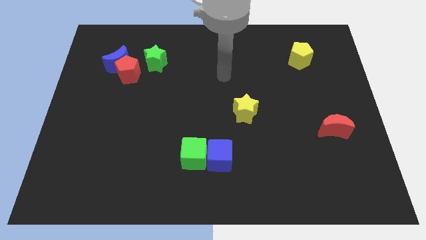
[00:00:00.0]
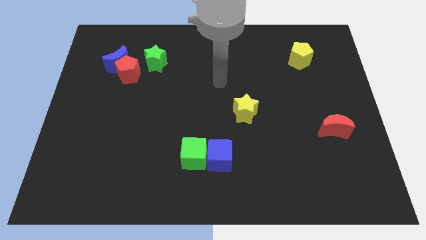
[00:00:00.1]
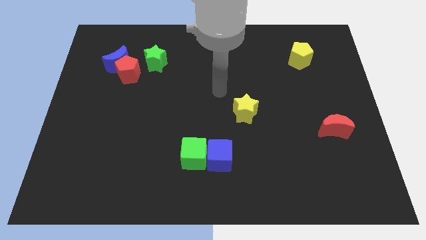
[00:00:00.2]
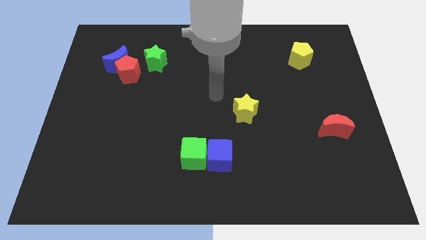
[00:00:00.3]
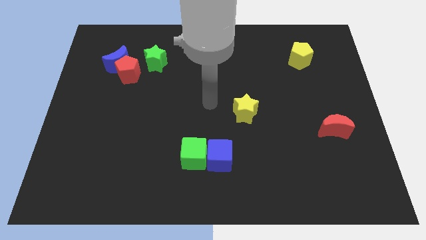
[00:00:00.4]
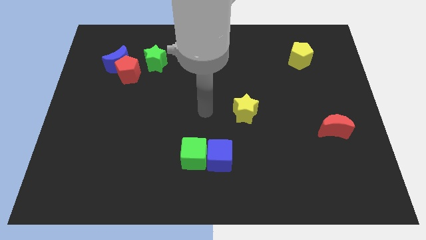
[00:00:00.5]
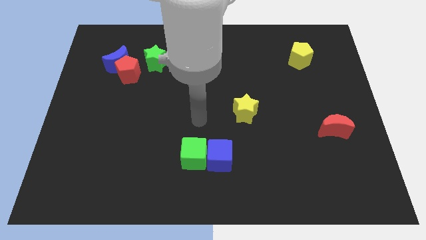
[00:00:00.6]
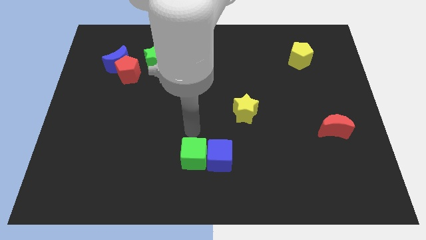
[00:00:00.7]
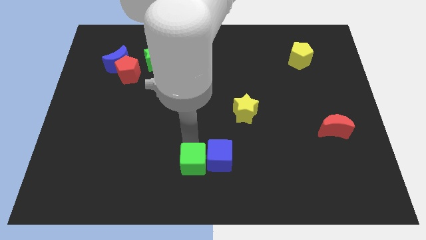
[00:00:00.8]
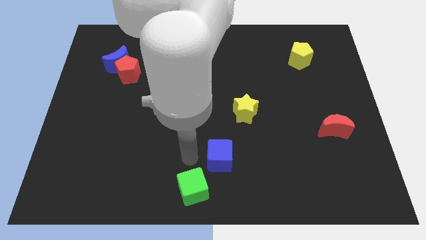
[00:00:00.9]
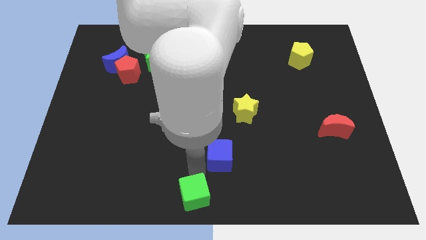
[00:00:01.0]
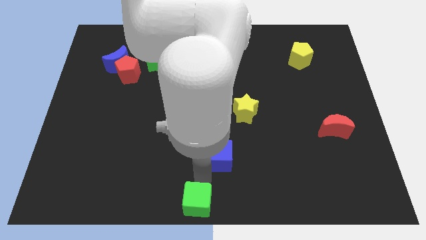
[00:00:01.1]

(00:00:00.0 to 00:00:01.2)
pull the blue cube apart from the green cube

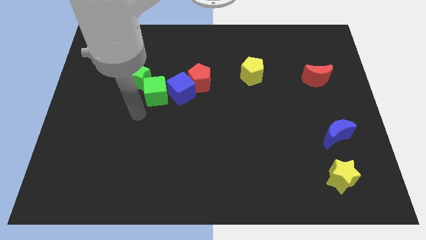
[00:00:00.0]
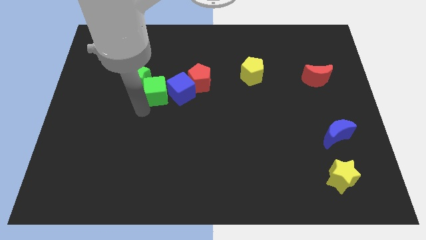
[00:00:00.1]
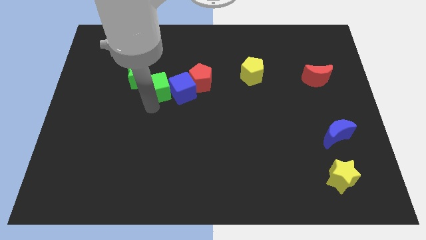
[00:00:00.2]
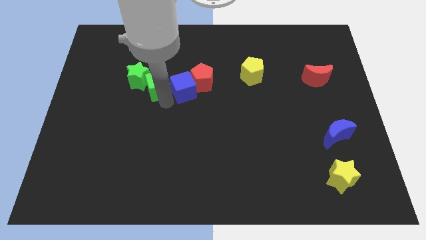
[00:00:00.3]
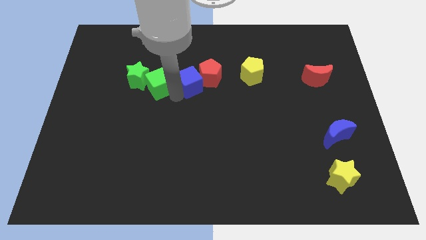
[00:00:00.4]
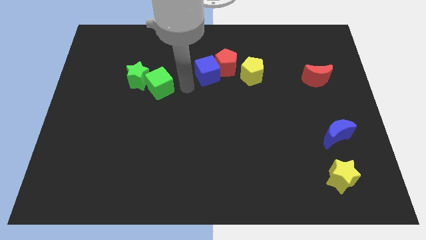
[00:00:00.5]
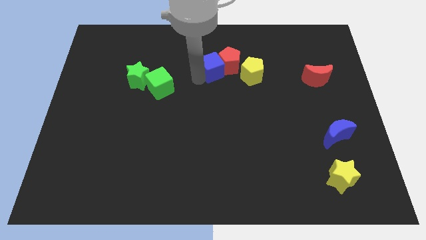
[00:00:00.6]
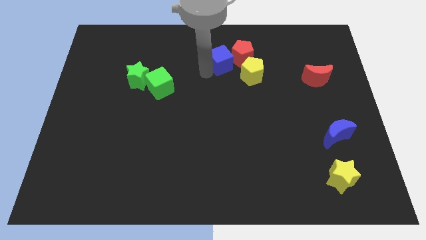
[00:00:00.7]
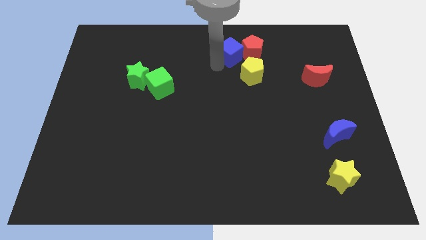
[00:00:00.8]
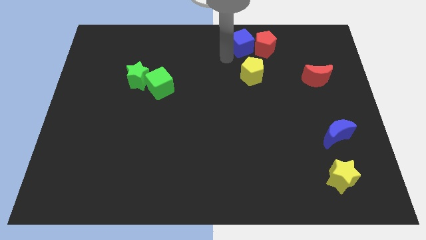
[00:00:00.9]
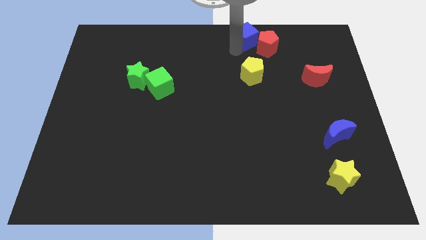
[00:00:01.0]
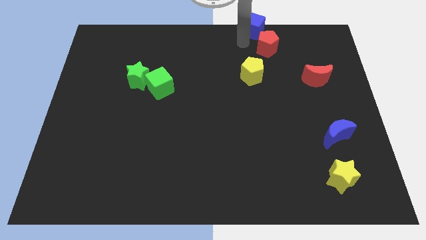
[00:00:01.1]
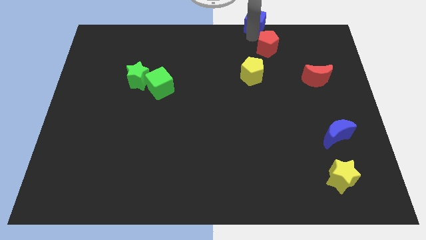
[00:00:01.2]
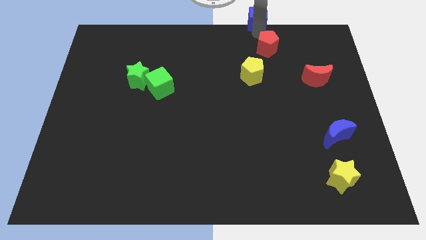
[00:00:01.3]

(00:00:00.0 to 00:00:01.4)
pull the red pentagon apart from the blue cube

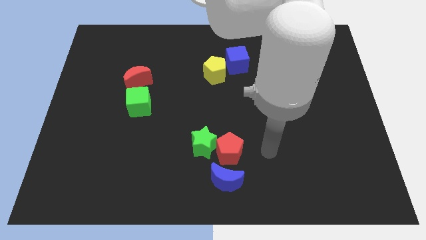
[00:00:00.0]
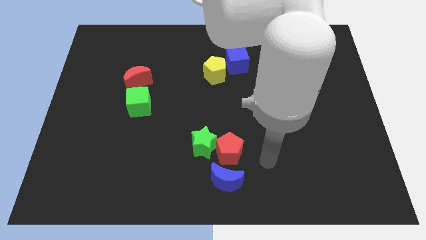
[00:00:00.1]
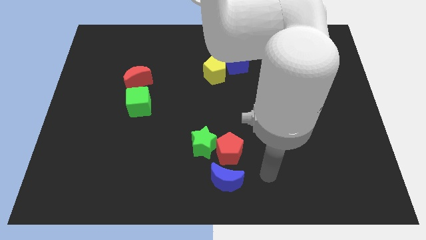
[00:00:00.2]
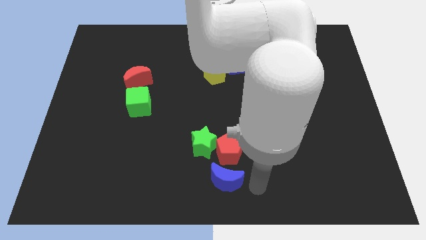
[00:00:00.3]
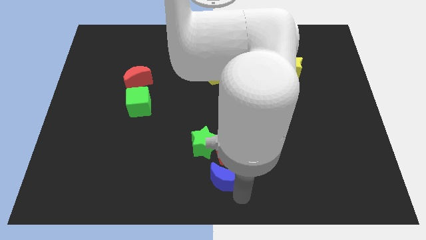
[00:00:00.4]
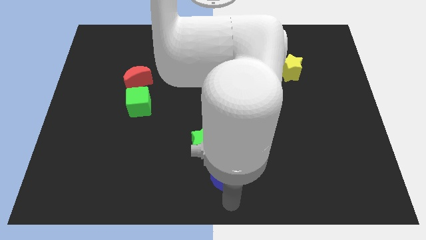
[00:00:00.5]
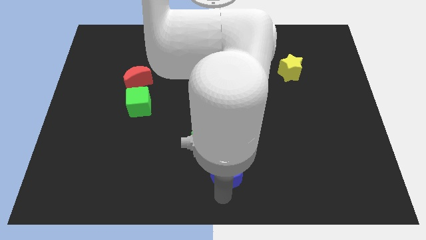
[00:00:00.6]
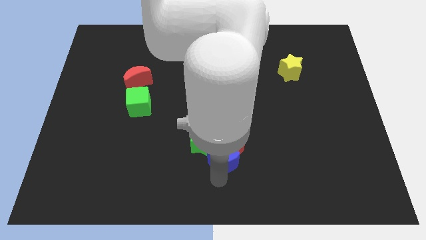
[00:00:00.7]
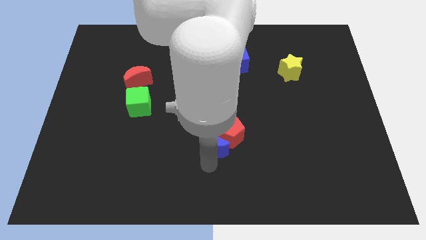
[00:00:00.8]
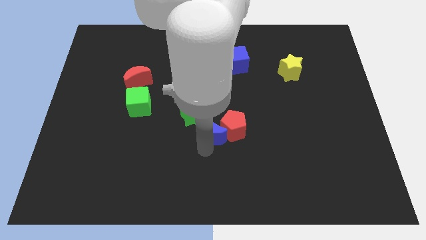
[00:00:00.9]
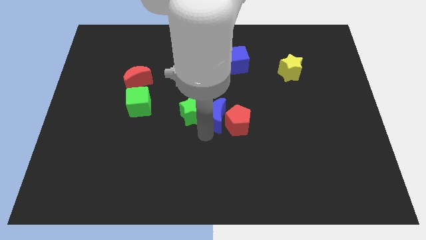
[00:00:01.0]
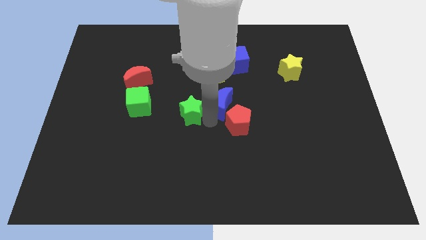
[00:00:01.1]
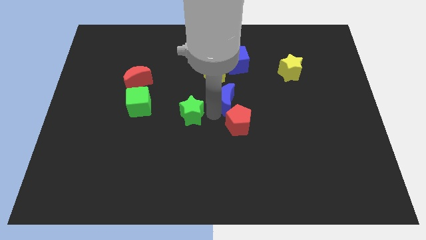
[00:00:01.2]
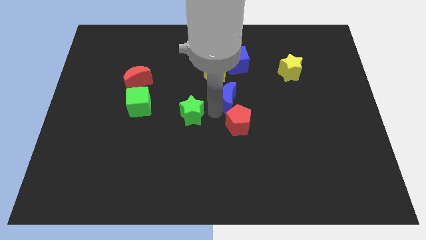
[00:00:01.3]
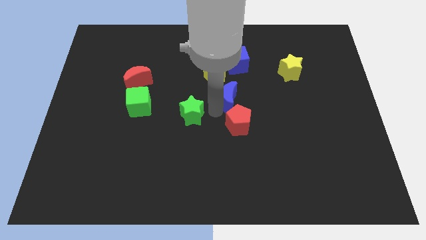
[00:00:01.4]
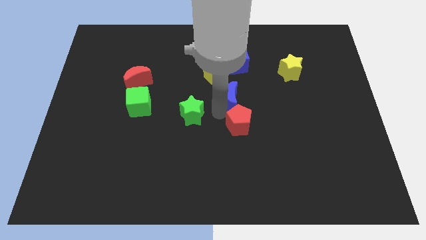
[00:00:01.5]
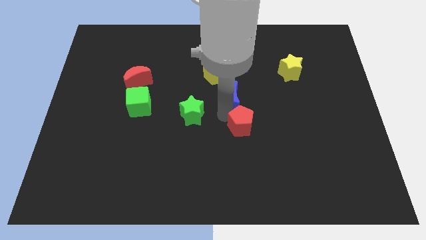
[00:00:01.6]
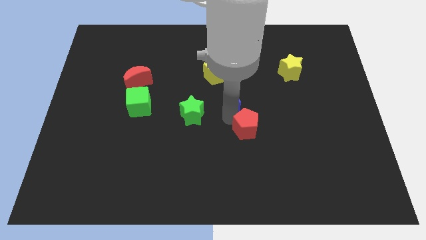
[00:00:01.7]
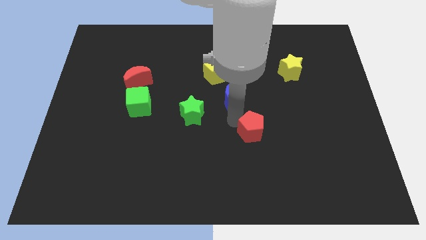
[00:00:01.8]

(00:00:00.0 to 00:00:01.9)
pull the red pentagon apart from the green star and blue moon

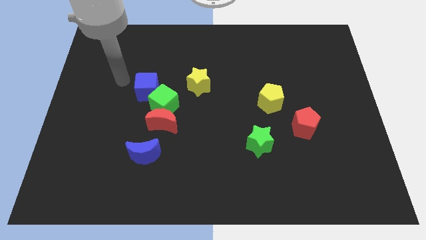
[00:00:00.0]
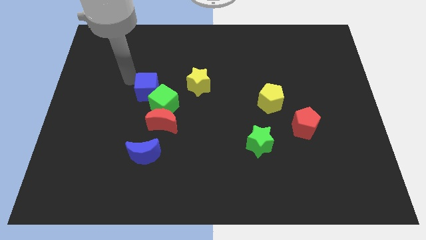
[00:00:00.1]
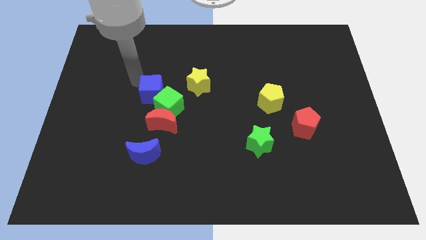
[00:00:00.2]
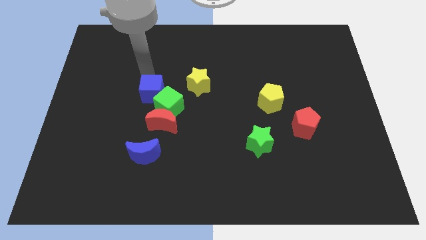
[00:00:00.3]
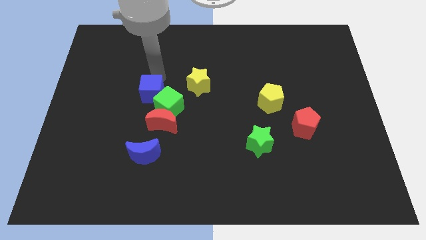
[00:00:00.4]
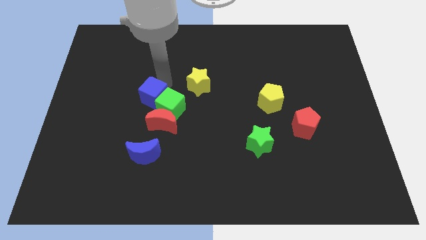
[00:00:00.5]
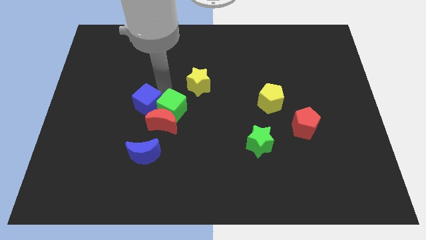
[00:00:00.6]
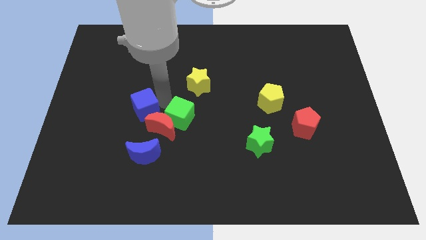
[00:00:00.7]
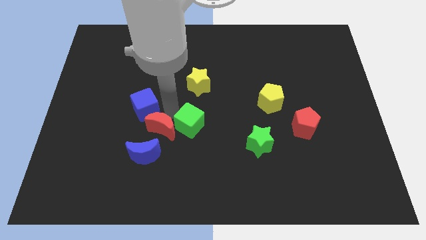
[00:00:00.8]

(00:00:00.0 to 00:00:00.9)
separate the blue cube from the green cube

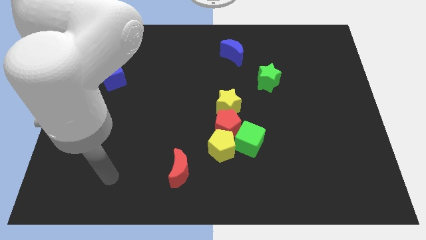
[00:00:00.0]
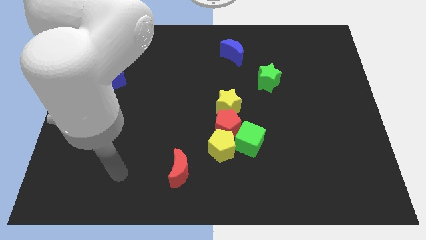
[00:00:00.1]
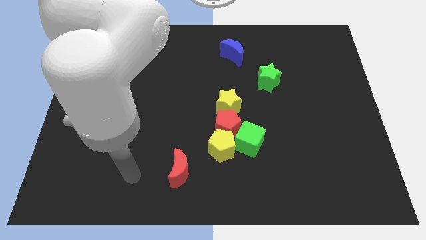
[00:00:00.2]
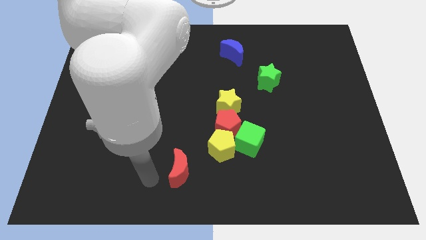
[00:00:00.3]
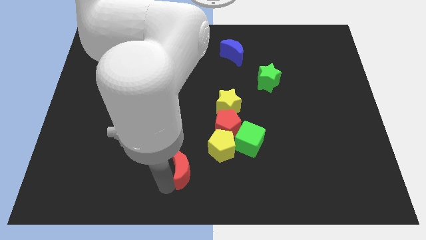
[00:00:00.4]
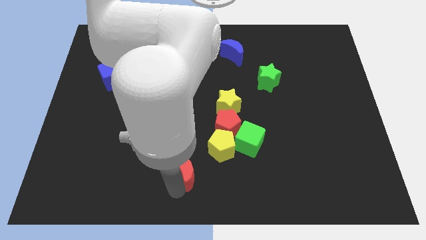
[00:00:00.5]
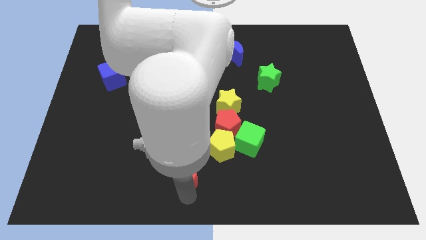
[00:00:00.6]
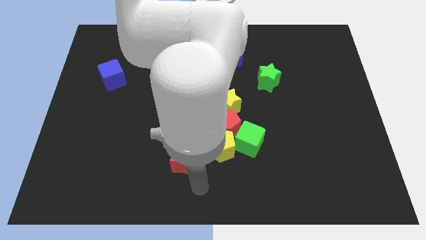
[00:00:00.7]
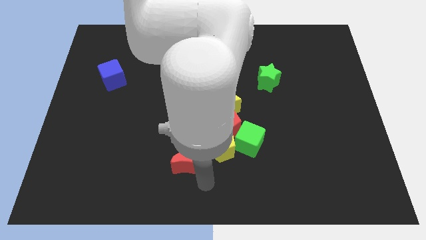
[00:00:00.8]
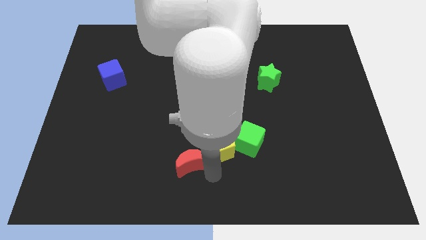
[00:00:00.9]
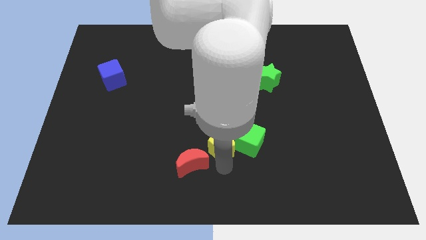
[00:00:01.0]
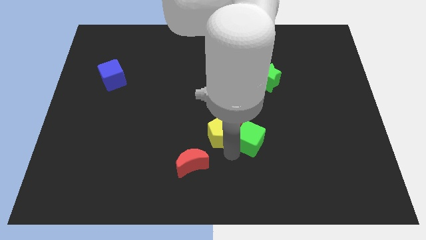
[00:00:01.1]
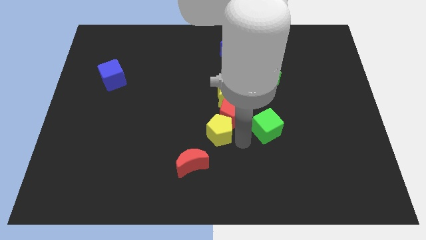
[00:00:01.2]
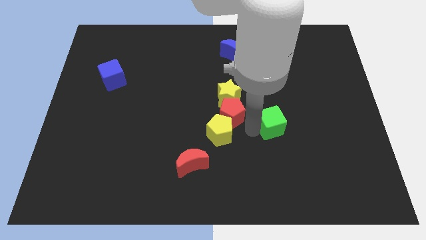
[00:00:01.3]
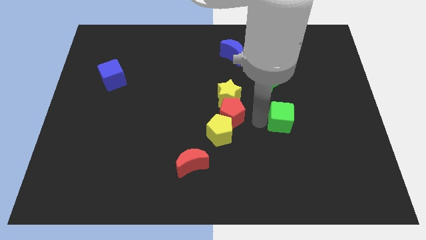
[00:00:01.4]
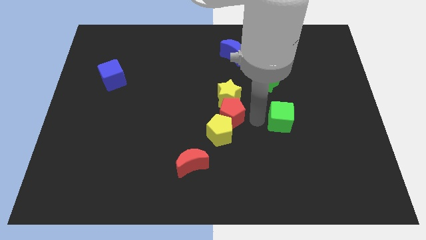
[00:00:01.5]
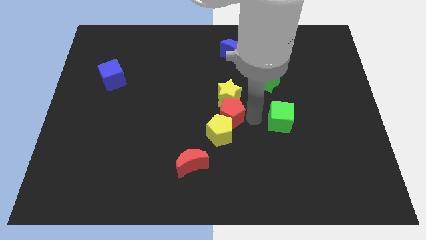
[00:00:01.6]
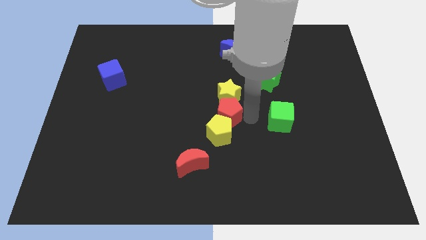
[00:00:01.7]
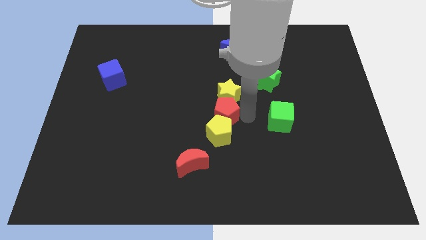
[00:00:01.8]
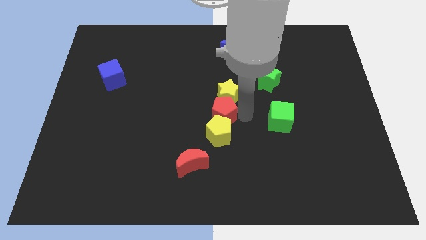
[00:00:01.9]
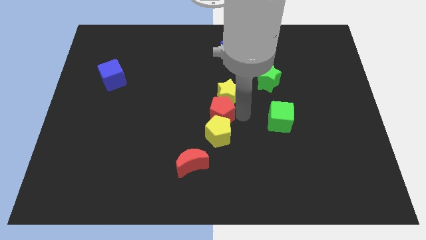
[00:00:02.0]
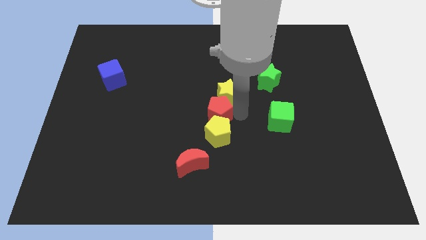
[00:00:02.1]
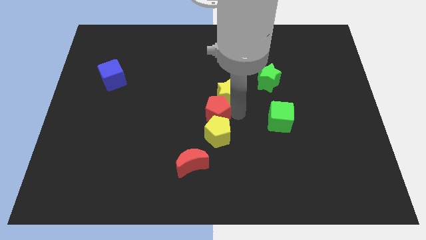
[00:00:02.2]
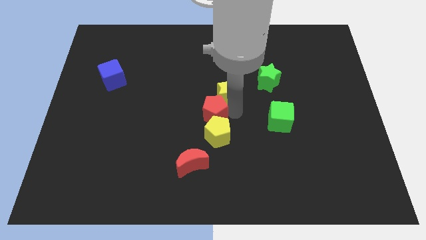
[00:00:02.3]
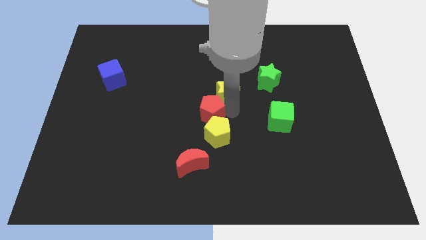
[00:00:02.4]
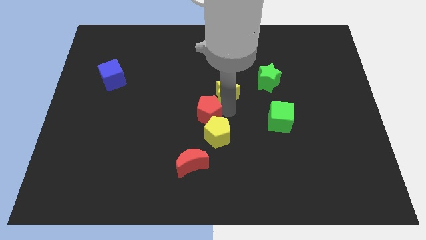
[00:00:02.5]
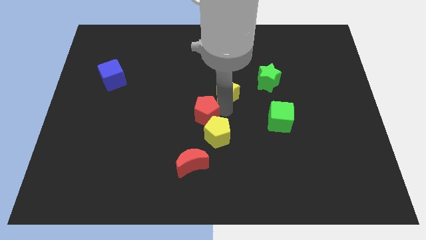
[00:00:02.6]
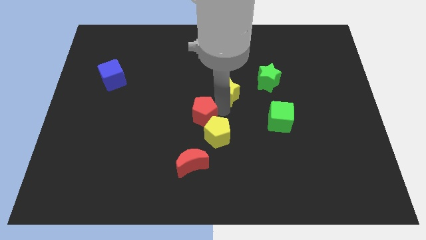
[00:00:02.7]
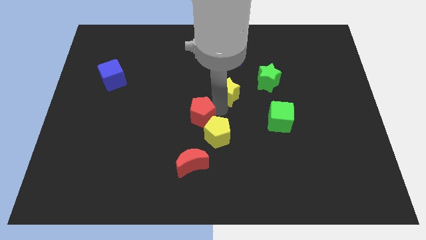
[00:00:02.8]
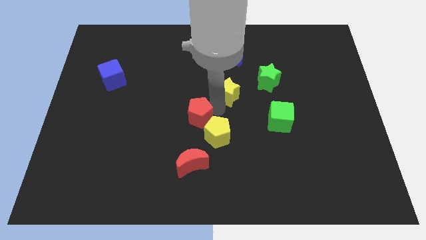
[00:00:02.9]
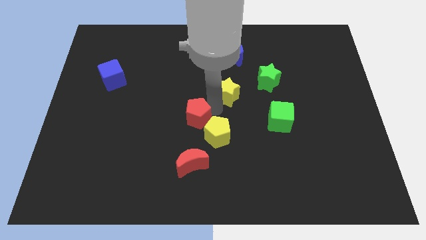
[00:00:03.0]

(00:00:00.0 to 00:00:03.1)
separate the red pentagon from the clump

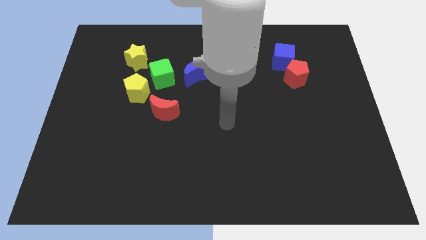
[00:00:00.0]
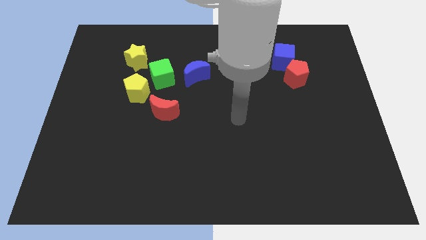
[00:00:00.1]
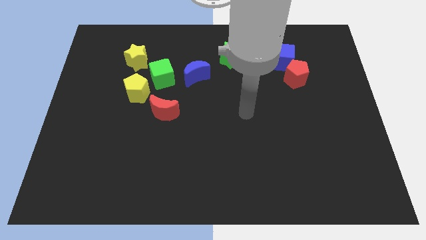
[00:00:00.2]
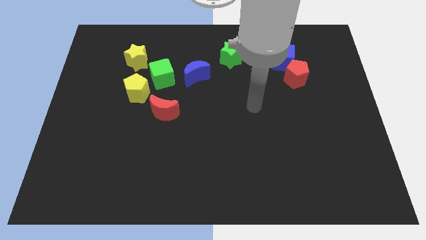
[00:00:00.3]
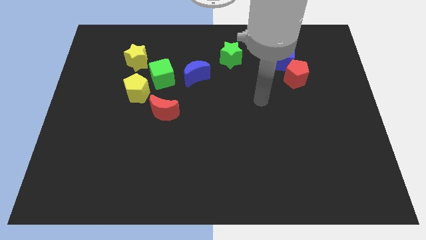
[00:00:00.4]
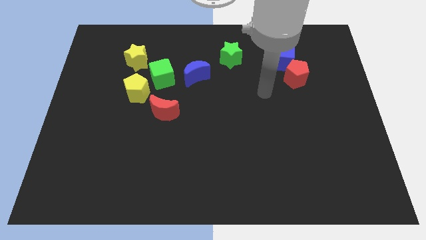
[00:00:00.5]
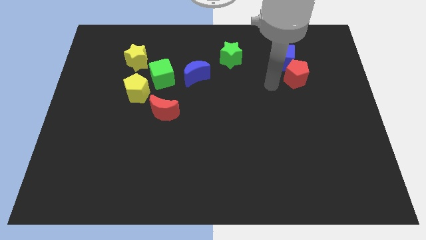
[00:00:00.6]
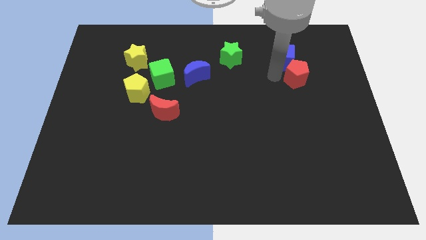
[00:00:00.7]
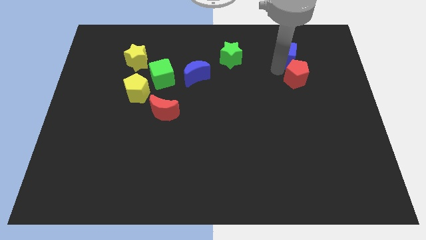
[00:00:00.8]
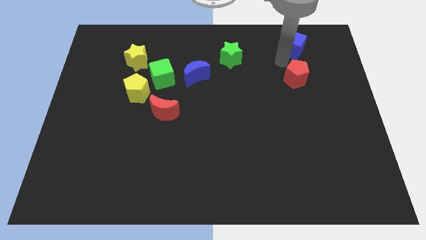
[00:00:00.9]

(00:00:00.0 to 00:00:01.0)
separate the red pentagon from the blue cube
